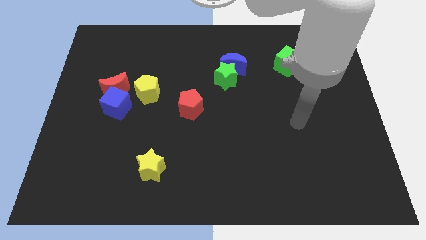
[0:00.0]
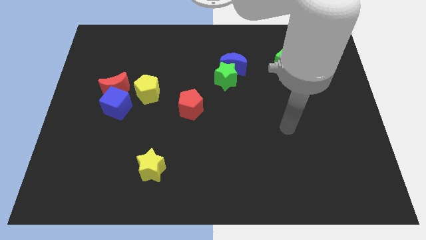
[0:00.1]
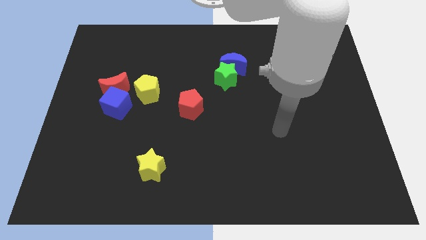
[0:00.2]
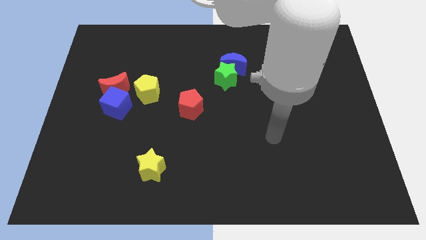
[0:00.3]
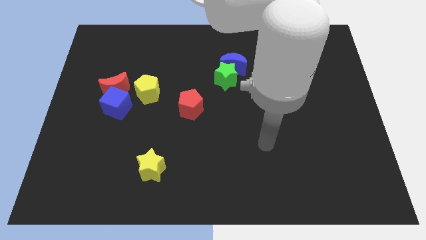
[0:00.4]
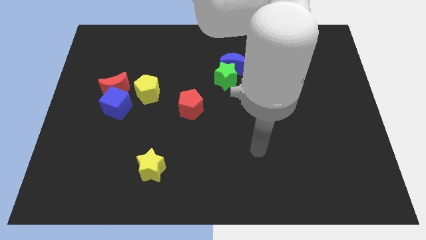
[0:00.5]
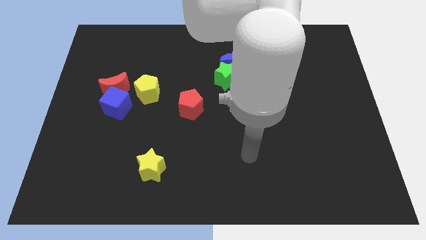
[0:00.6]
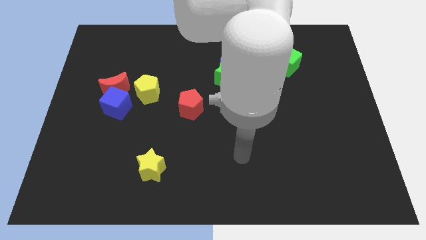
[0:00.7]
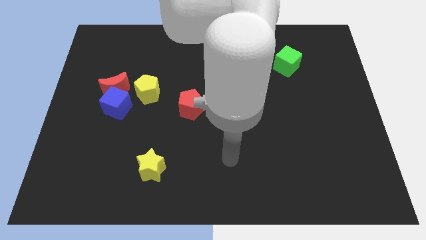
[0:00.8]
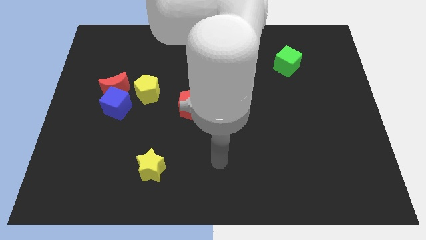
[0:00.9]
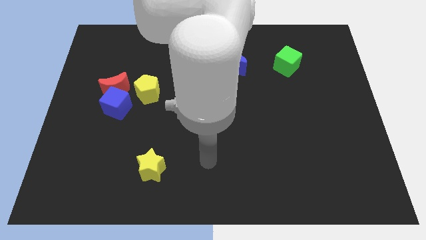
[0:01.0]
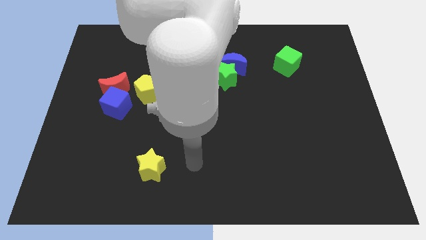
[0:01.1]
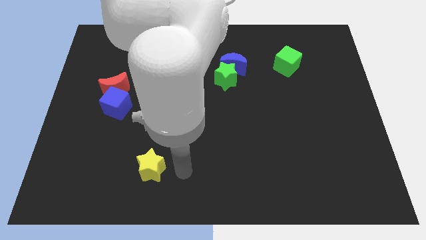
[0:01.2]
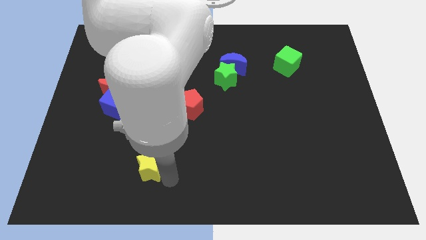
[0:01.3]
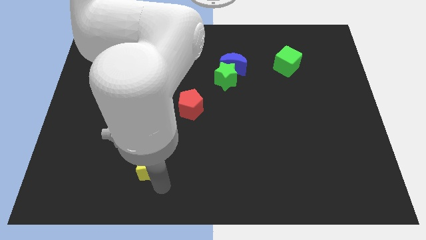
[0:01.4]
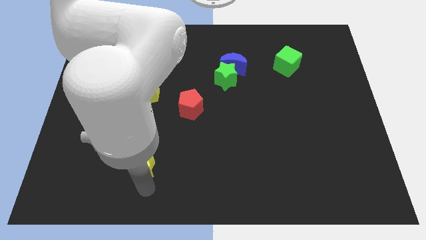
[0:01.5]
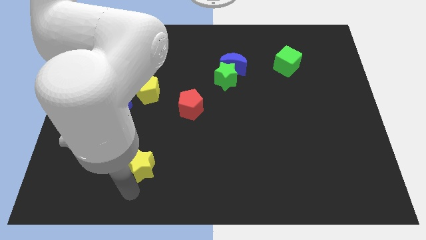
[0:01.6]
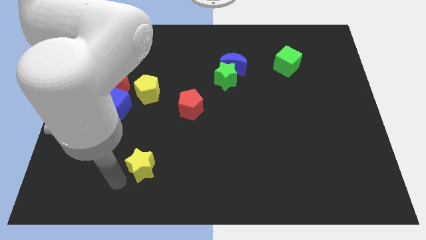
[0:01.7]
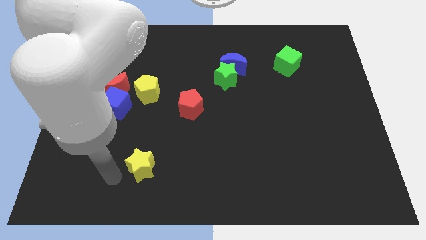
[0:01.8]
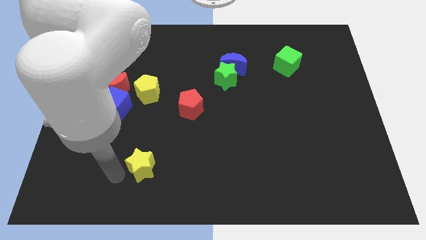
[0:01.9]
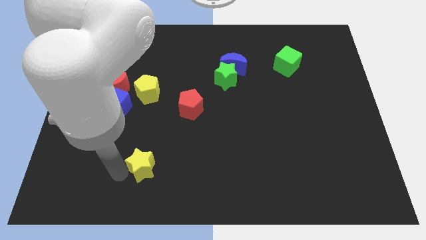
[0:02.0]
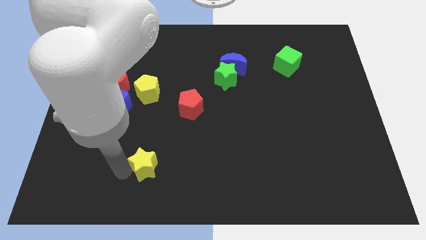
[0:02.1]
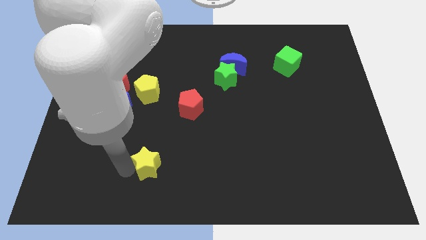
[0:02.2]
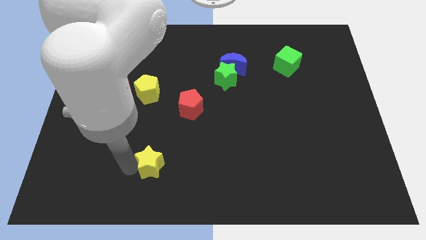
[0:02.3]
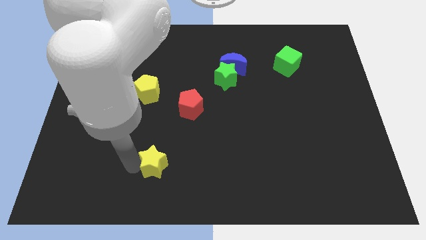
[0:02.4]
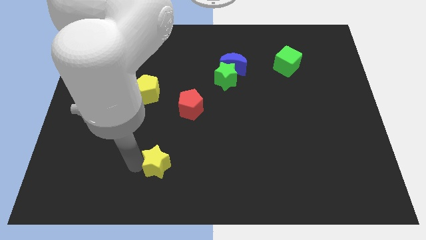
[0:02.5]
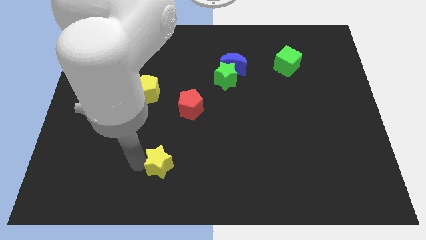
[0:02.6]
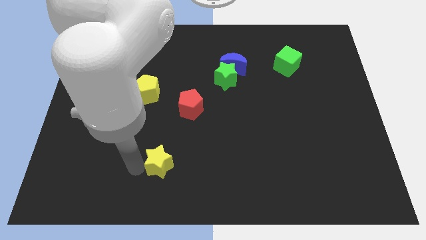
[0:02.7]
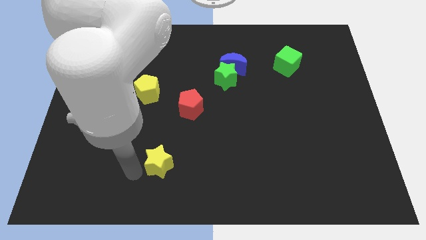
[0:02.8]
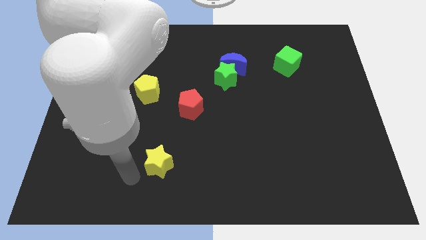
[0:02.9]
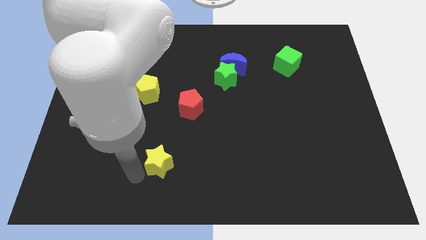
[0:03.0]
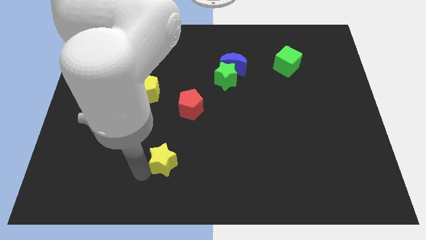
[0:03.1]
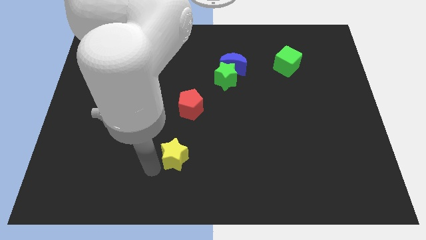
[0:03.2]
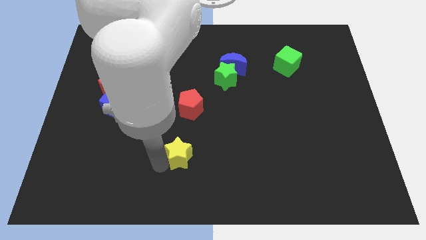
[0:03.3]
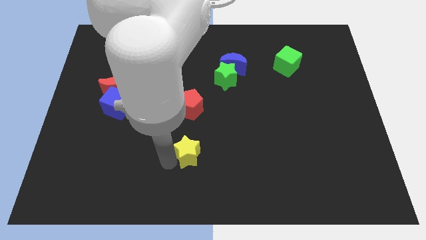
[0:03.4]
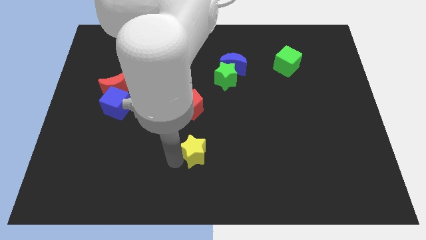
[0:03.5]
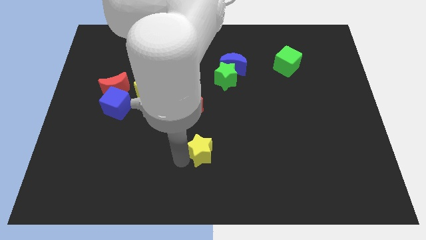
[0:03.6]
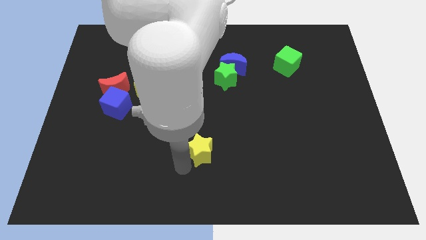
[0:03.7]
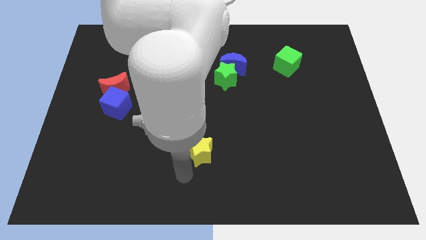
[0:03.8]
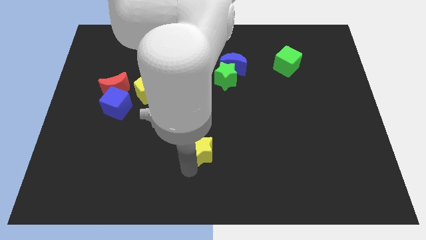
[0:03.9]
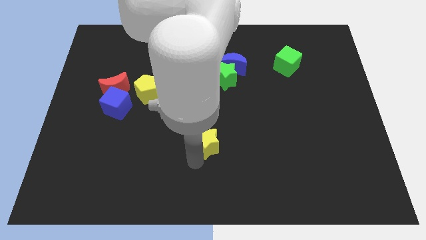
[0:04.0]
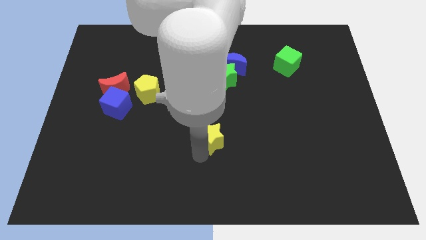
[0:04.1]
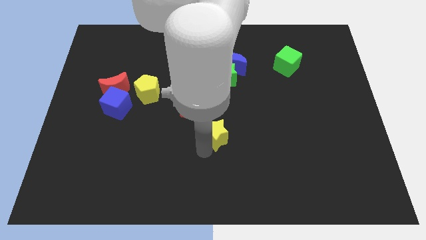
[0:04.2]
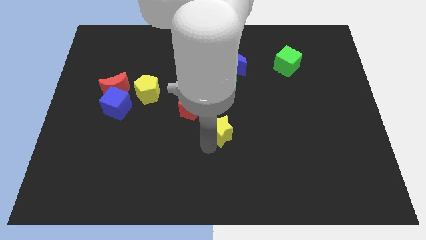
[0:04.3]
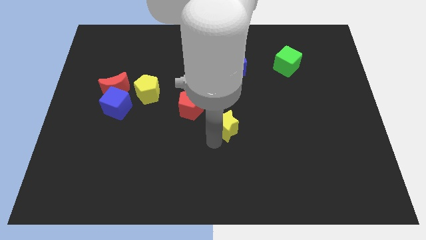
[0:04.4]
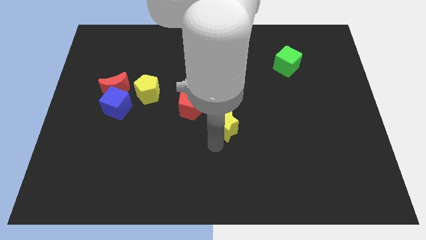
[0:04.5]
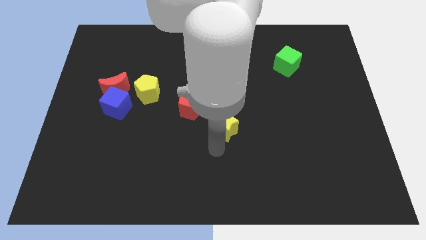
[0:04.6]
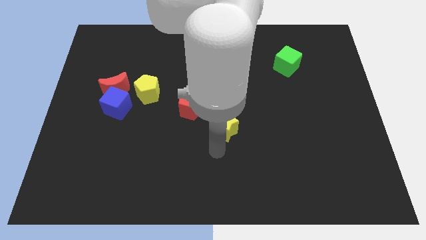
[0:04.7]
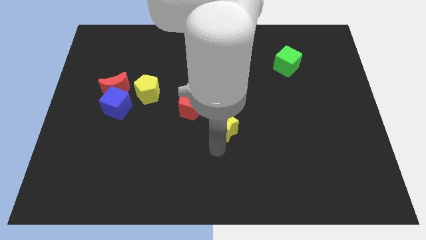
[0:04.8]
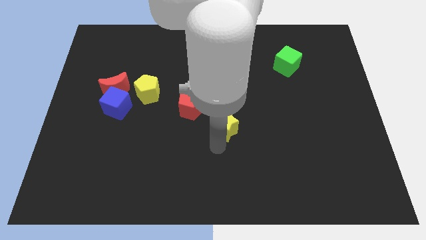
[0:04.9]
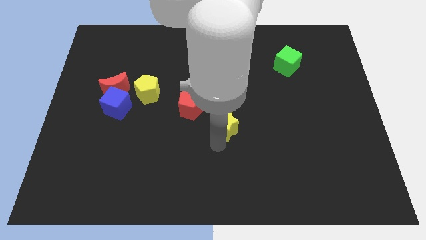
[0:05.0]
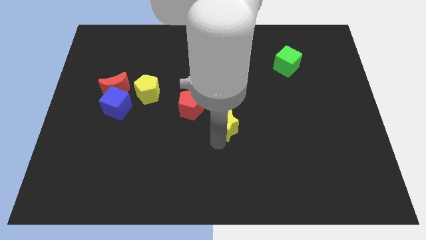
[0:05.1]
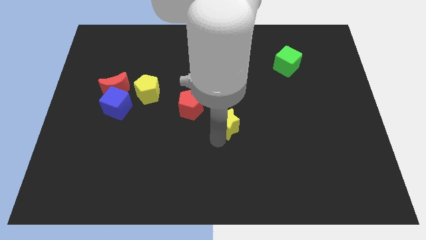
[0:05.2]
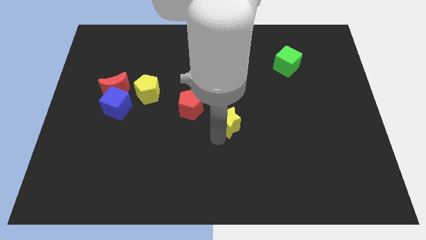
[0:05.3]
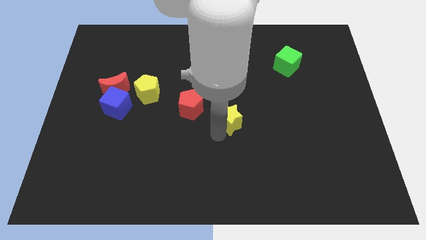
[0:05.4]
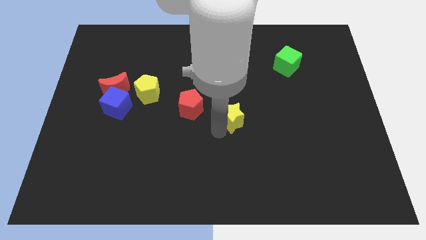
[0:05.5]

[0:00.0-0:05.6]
slide the yellow star up and to the right

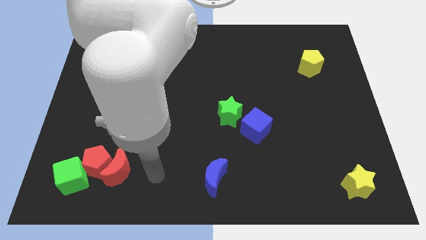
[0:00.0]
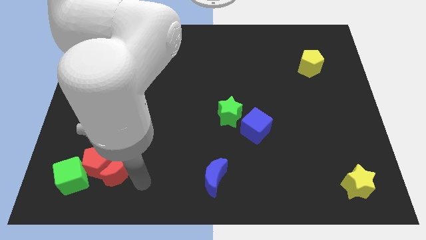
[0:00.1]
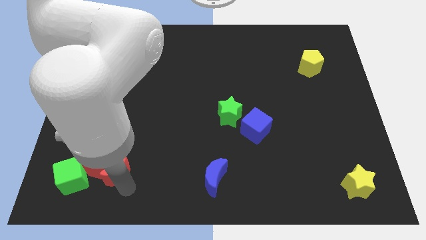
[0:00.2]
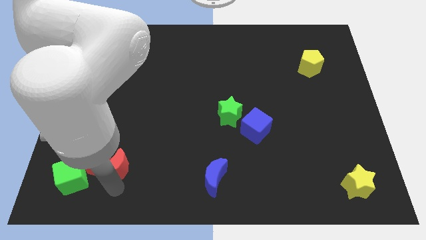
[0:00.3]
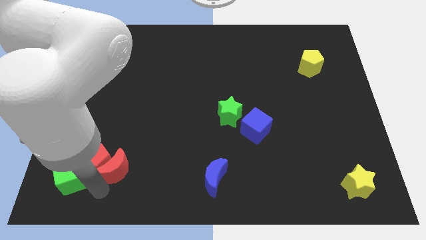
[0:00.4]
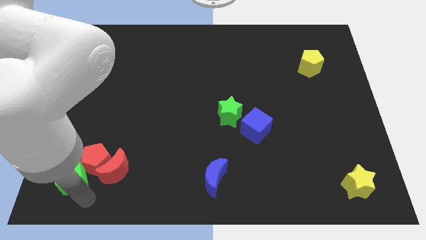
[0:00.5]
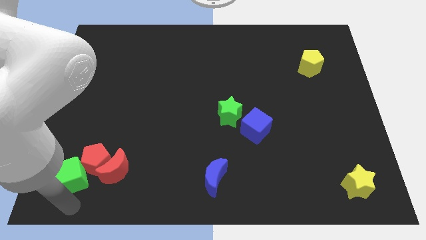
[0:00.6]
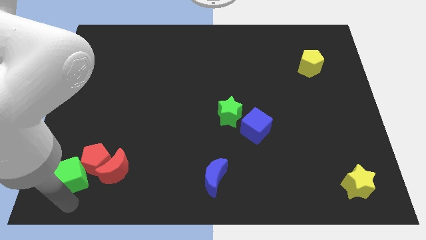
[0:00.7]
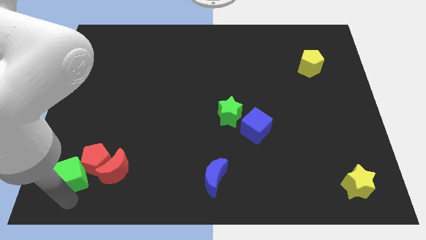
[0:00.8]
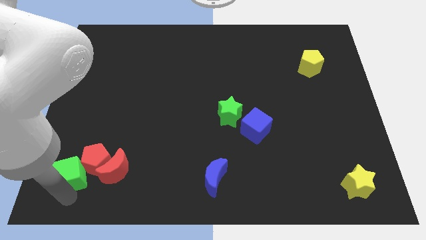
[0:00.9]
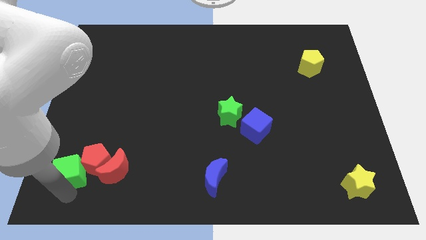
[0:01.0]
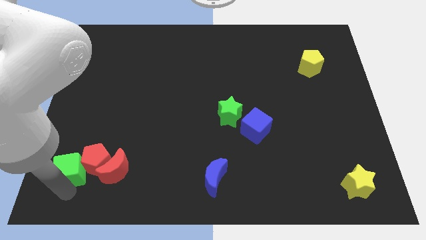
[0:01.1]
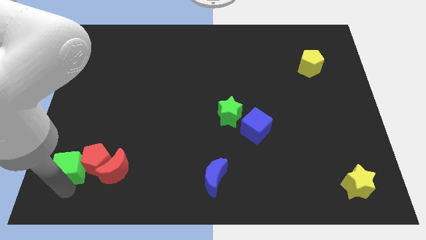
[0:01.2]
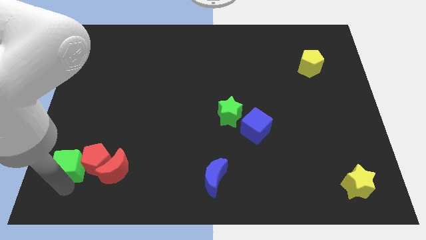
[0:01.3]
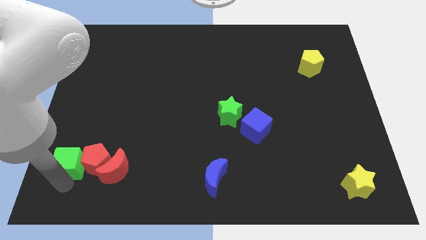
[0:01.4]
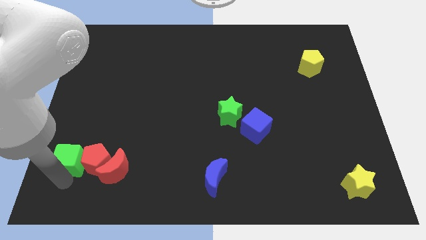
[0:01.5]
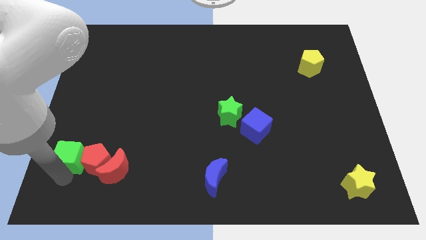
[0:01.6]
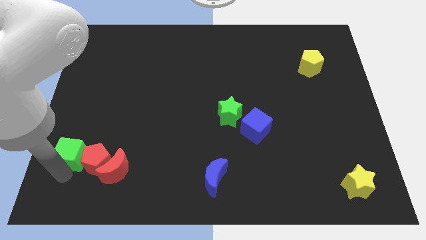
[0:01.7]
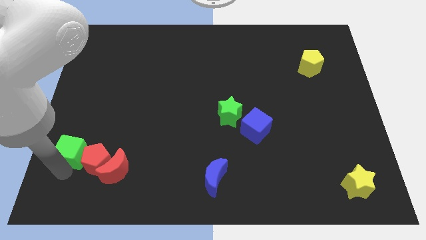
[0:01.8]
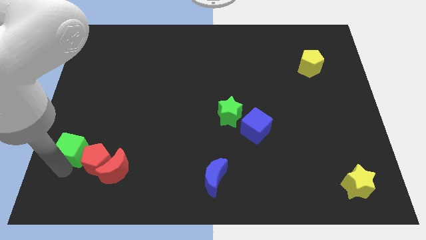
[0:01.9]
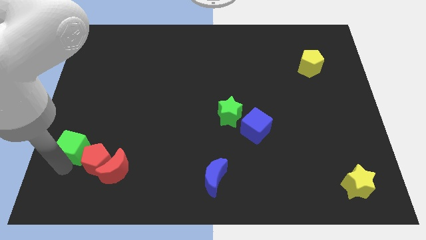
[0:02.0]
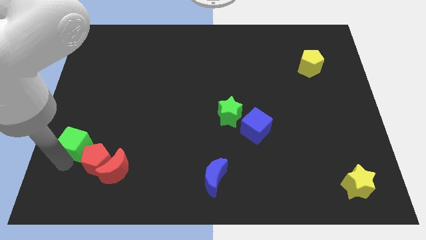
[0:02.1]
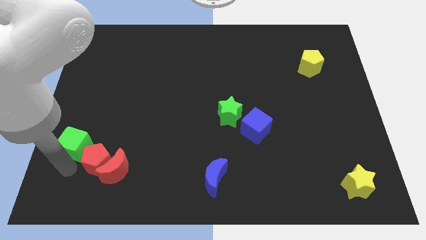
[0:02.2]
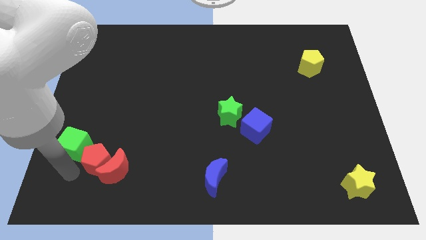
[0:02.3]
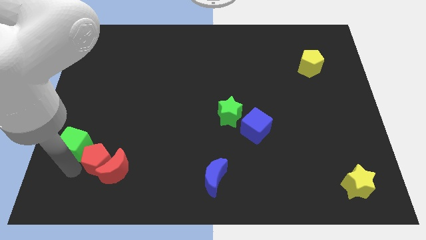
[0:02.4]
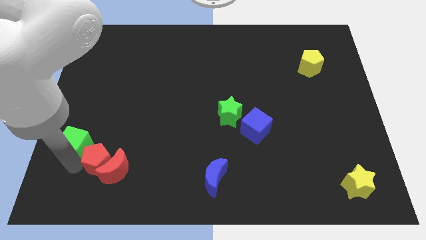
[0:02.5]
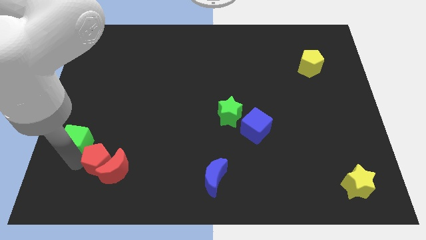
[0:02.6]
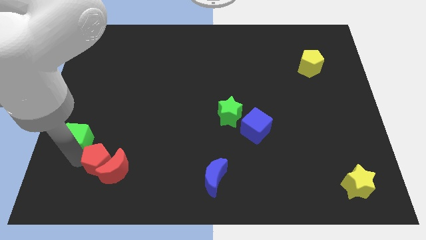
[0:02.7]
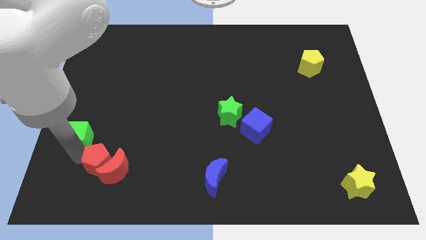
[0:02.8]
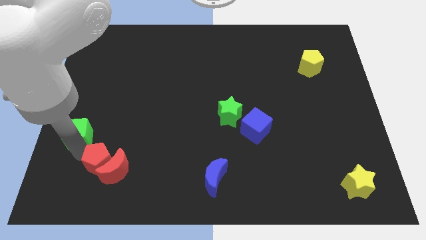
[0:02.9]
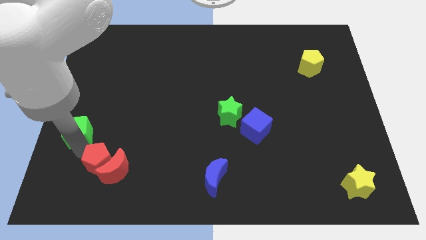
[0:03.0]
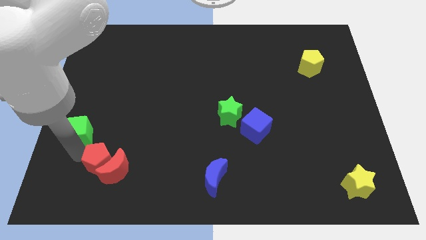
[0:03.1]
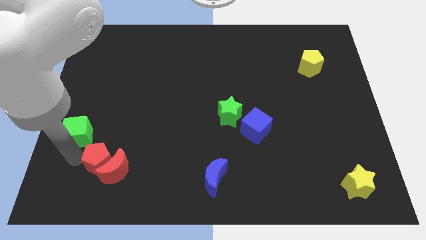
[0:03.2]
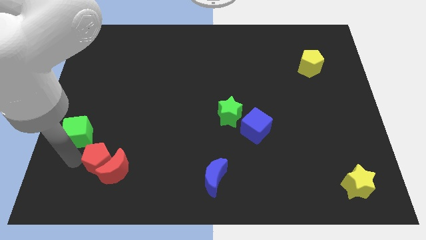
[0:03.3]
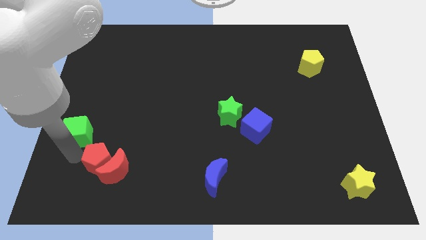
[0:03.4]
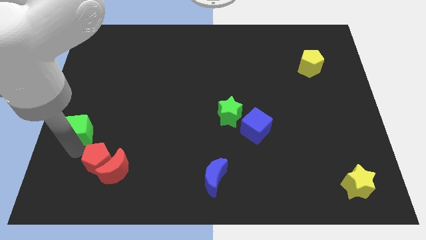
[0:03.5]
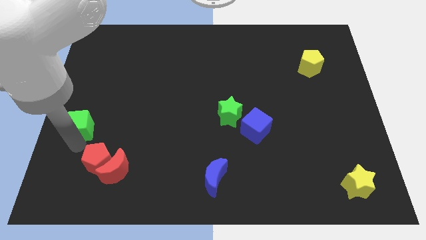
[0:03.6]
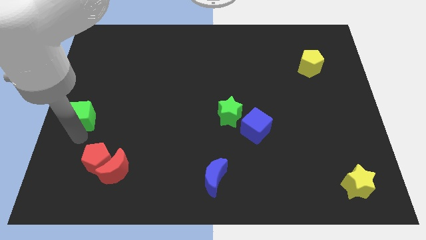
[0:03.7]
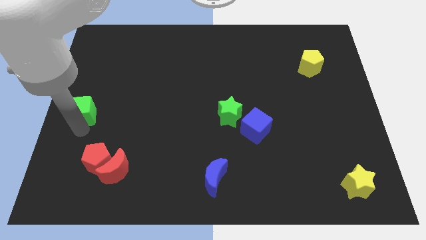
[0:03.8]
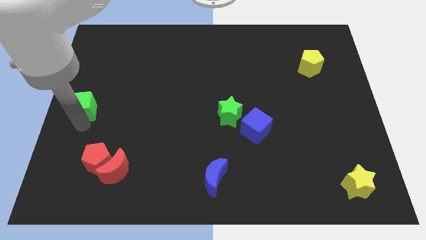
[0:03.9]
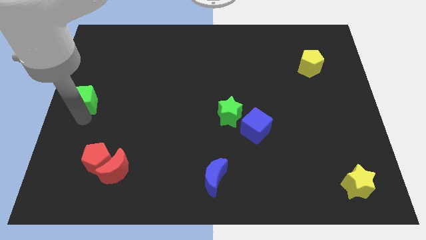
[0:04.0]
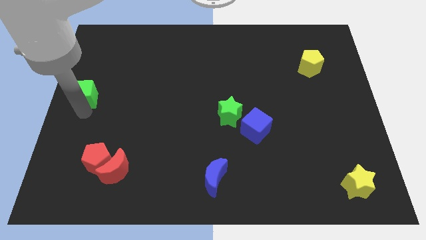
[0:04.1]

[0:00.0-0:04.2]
push the green cube up
